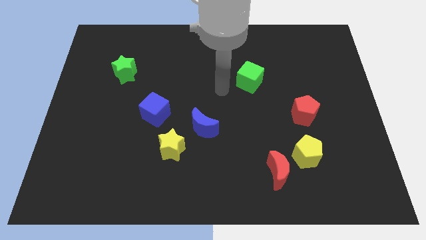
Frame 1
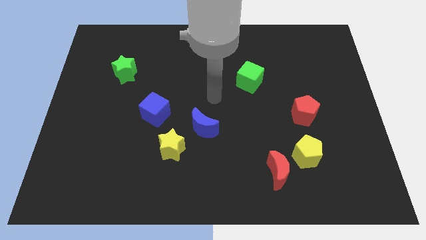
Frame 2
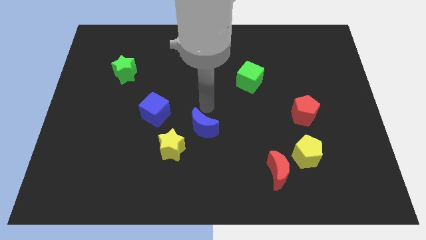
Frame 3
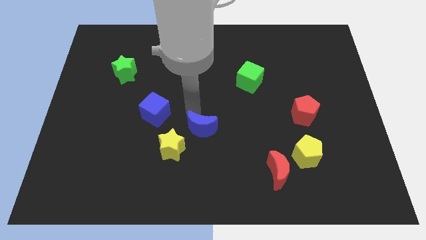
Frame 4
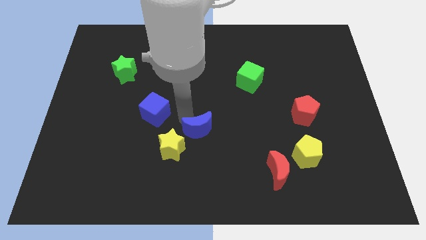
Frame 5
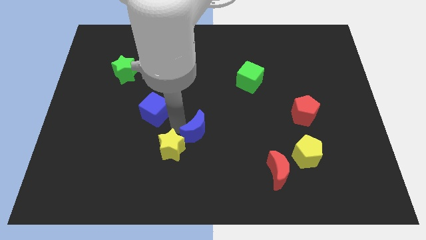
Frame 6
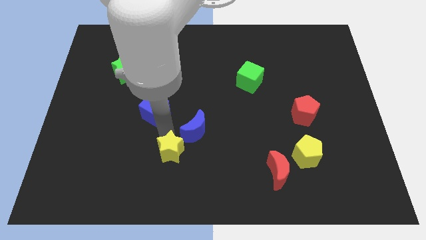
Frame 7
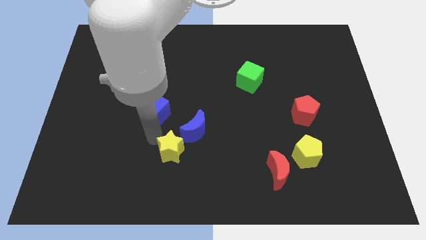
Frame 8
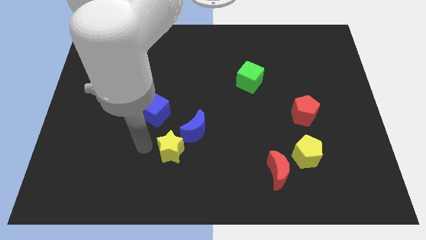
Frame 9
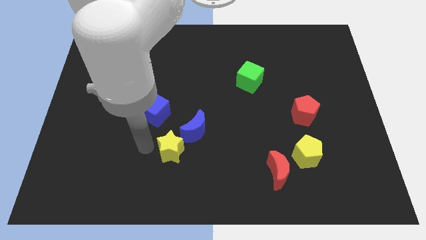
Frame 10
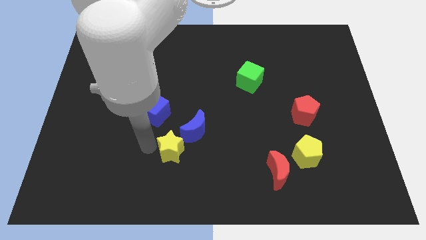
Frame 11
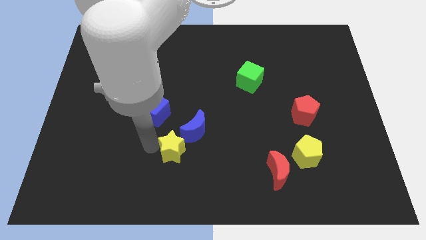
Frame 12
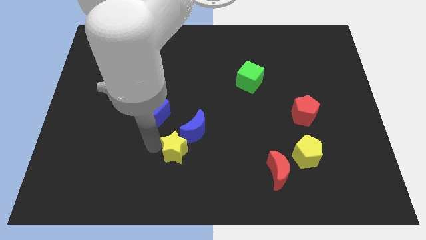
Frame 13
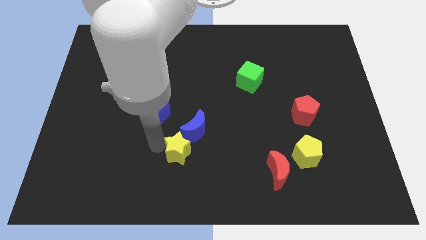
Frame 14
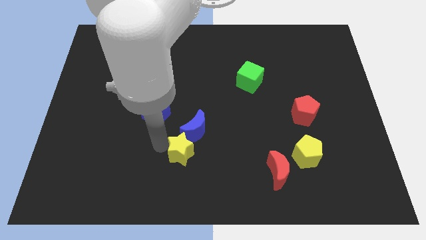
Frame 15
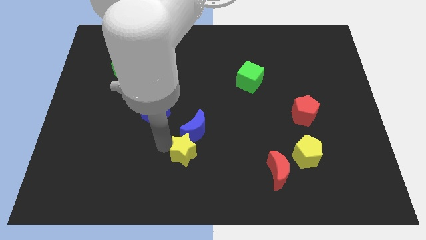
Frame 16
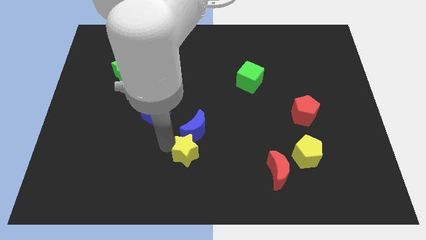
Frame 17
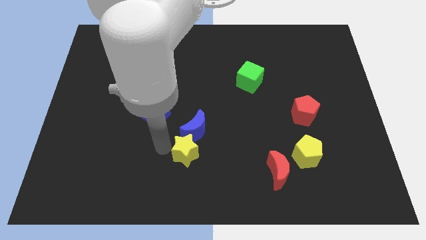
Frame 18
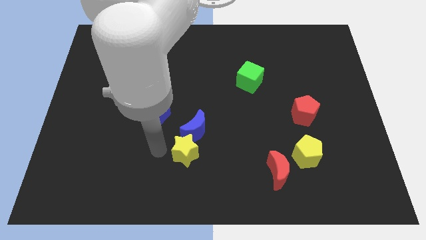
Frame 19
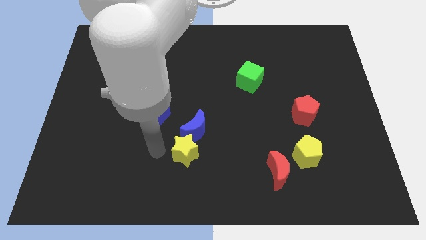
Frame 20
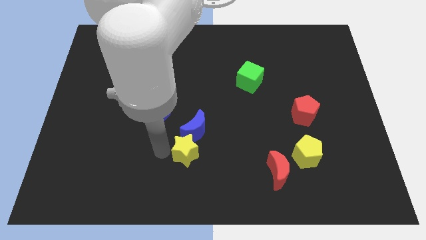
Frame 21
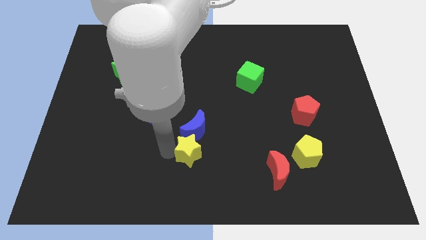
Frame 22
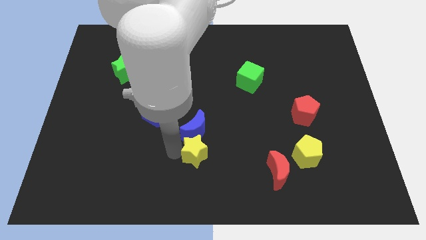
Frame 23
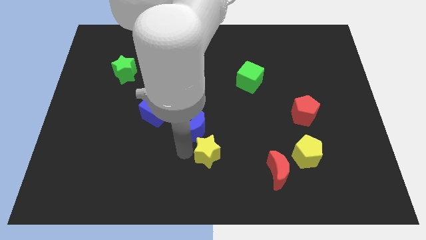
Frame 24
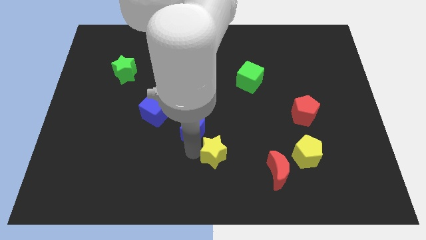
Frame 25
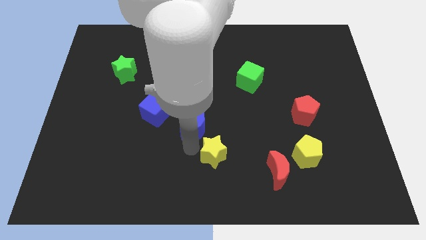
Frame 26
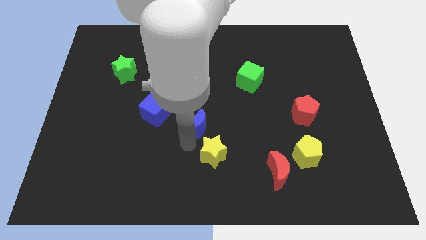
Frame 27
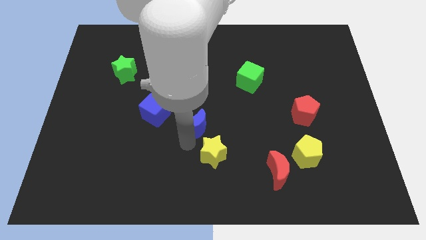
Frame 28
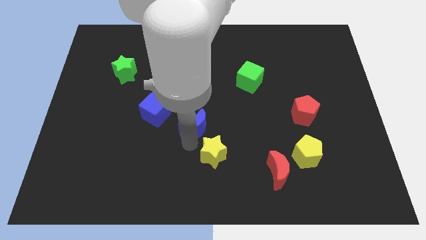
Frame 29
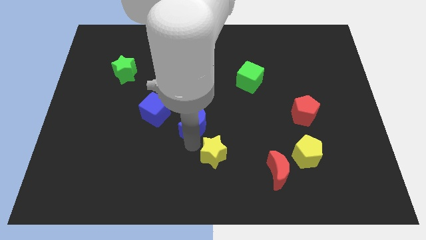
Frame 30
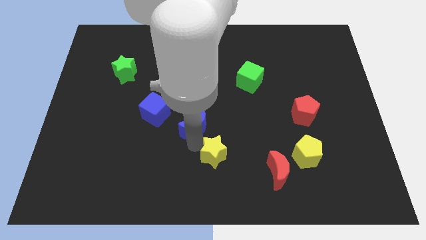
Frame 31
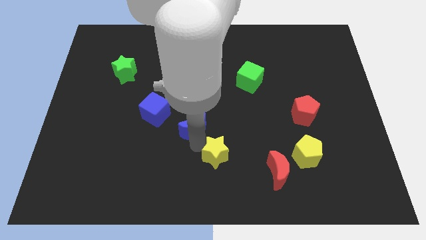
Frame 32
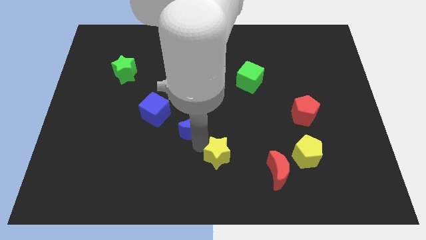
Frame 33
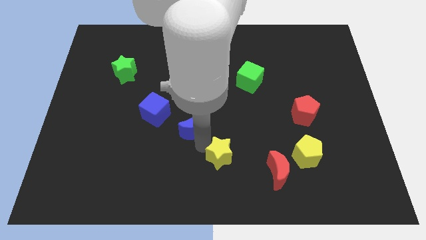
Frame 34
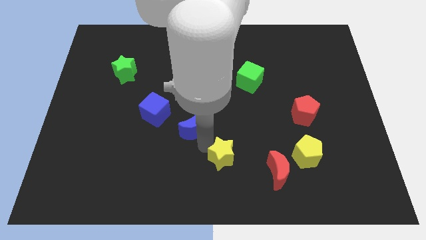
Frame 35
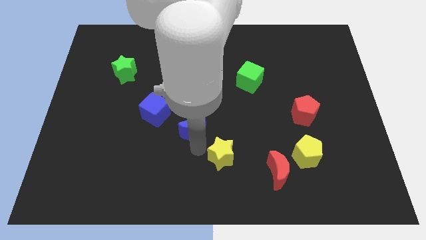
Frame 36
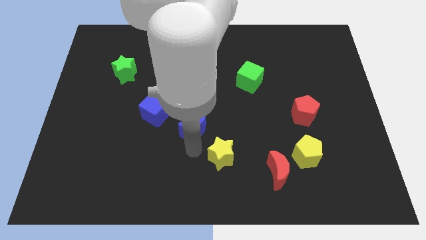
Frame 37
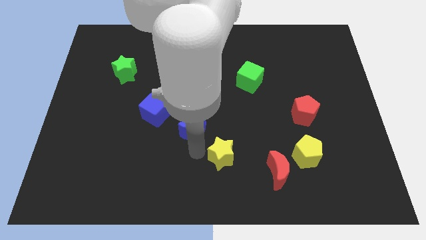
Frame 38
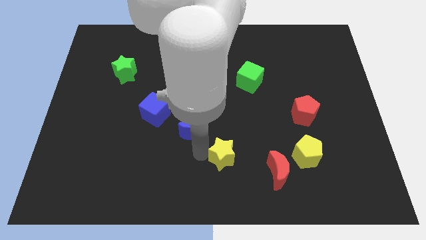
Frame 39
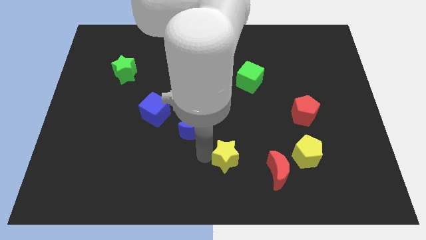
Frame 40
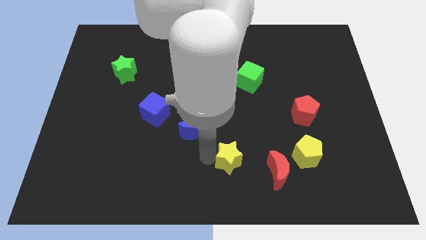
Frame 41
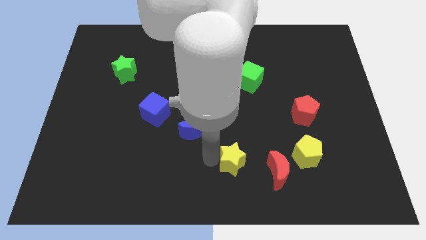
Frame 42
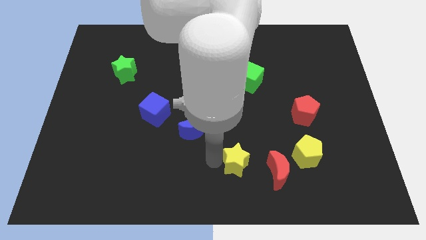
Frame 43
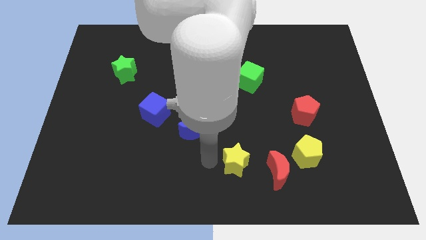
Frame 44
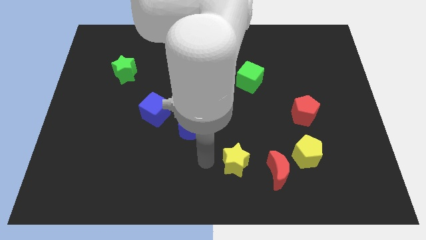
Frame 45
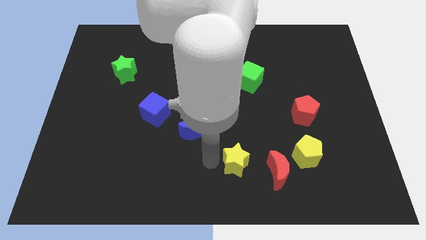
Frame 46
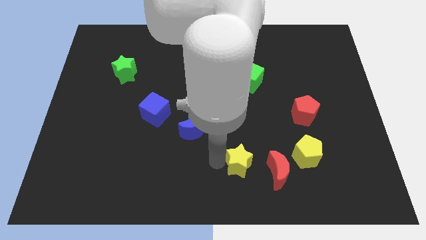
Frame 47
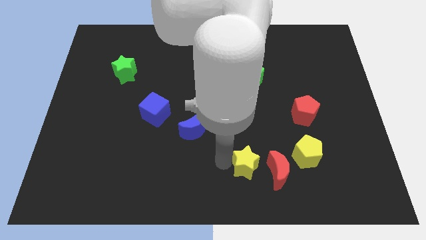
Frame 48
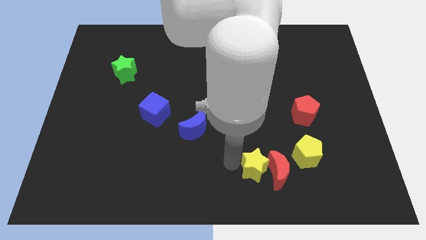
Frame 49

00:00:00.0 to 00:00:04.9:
move the yellow star to the red moon

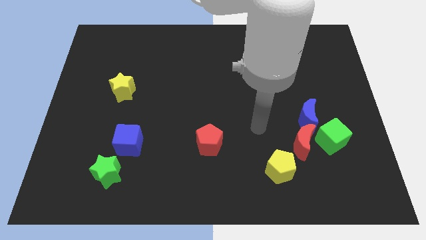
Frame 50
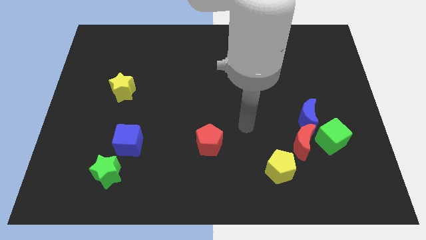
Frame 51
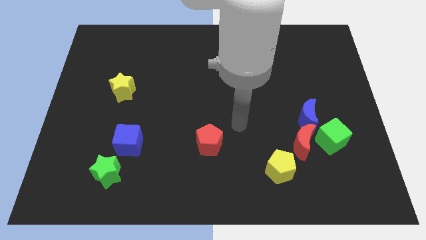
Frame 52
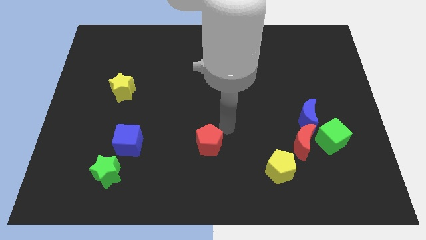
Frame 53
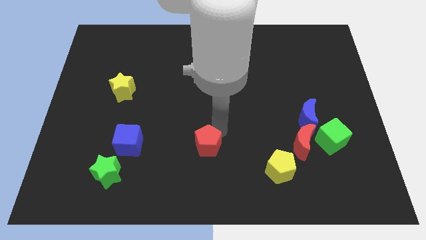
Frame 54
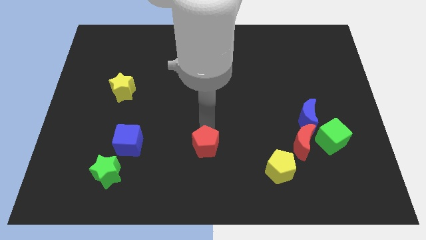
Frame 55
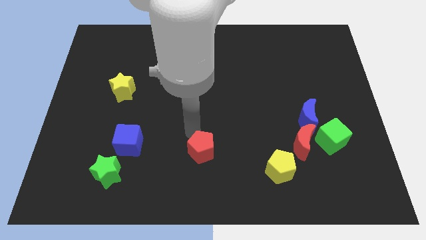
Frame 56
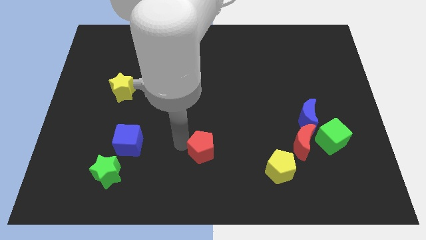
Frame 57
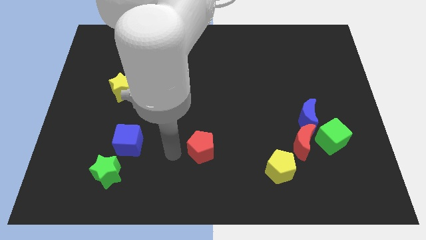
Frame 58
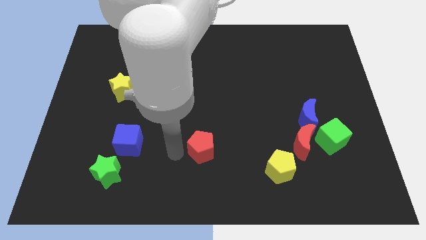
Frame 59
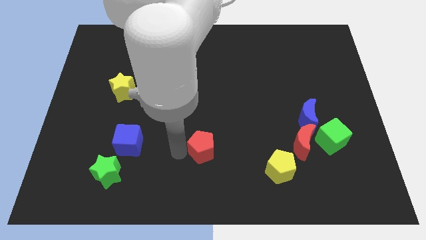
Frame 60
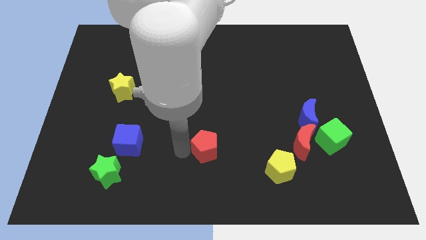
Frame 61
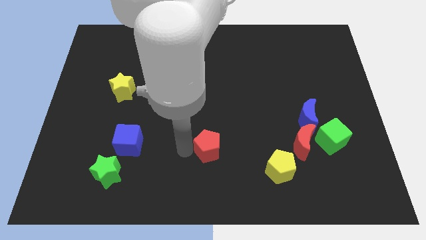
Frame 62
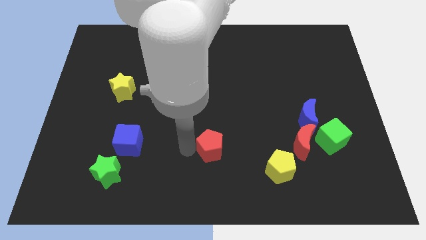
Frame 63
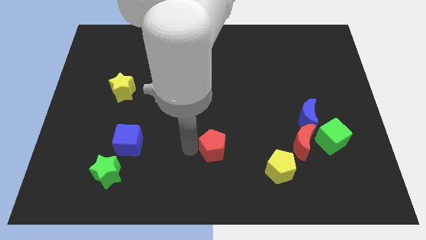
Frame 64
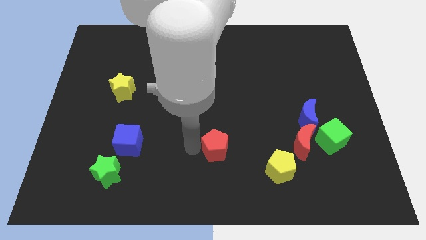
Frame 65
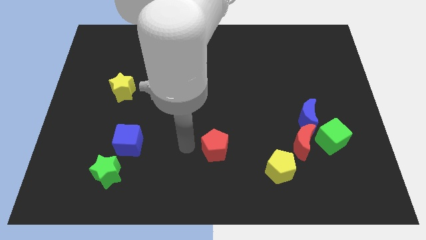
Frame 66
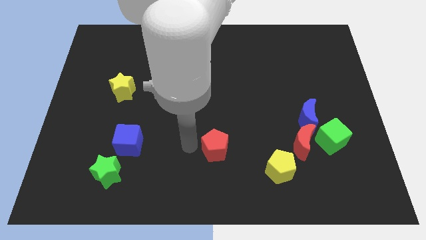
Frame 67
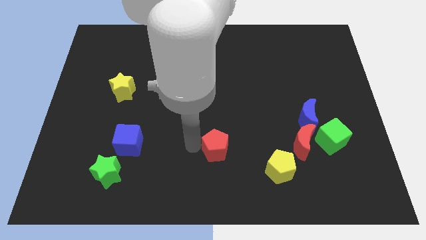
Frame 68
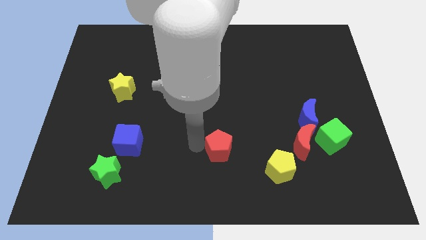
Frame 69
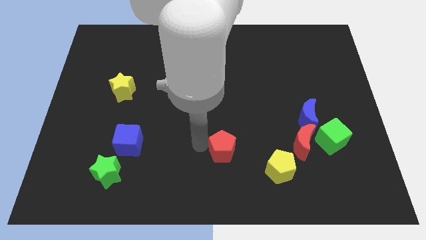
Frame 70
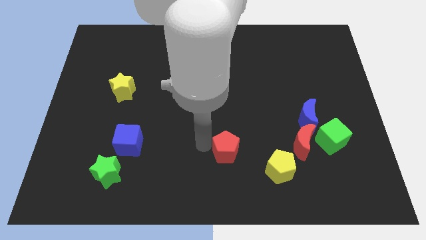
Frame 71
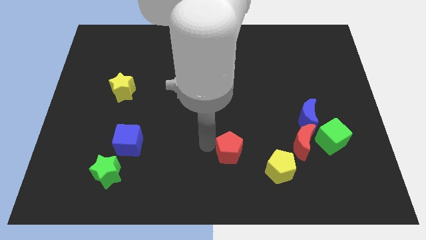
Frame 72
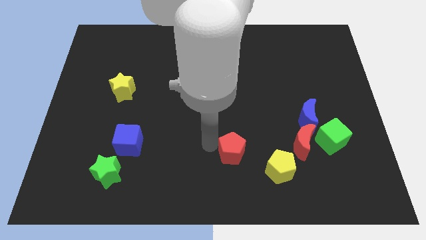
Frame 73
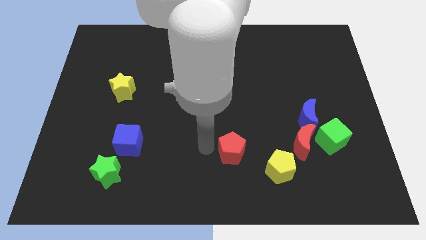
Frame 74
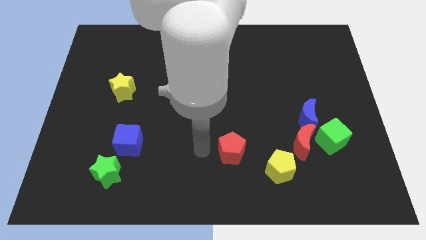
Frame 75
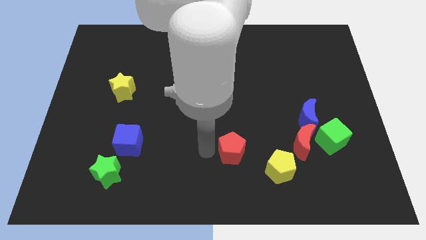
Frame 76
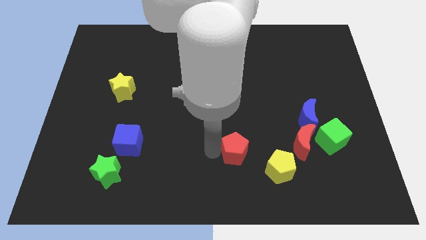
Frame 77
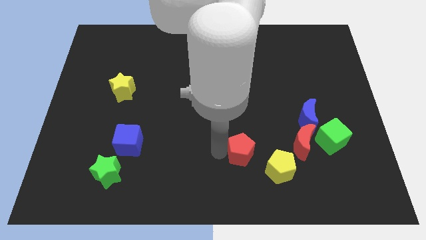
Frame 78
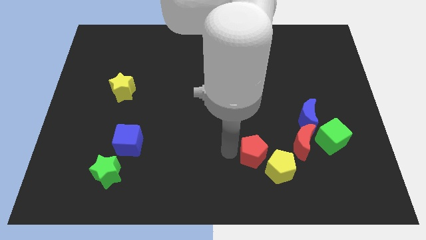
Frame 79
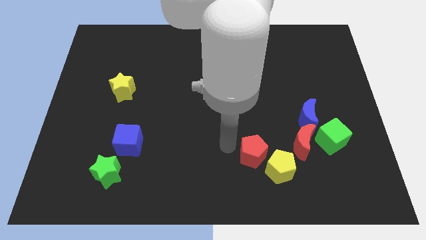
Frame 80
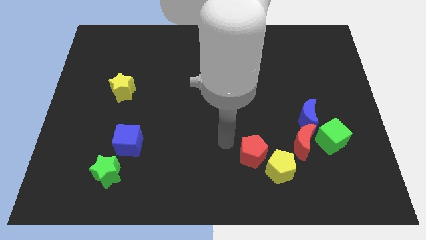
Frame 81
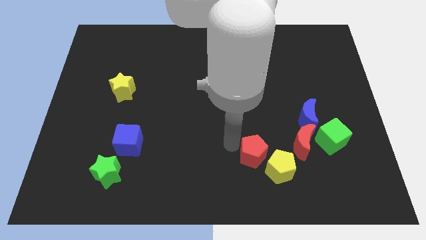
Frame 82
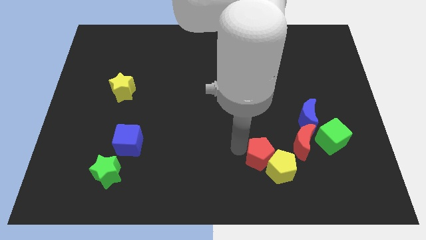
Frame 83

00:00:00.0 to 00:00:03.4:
move the red pentagon to the yellow pentagon

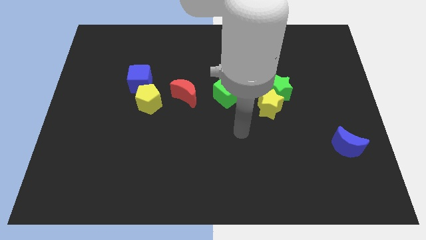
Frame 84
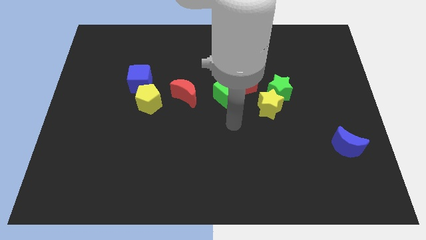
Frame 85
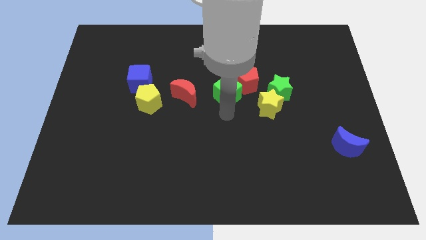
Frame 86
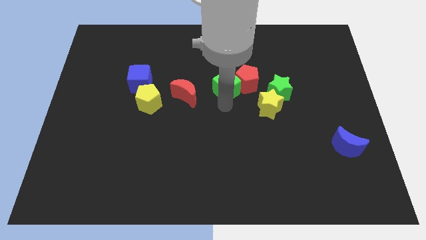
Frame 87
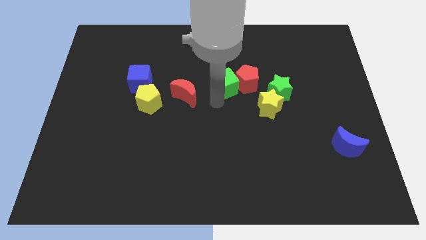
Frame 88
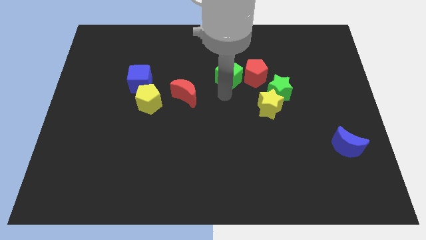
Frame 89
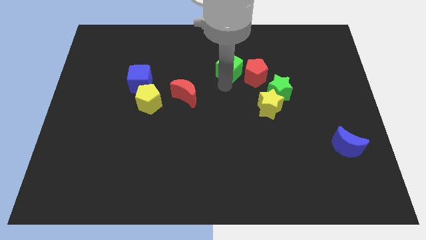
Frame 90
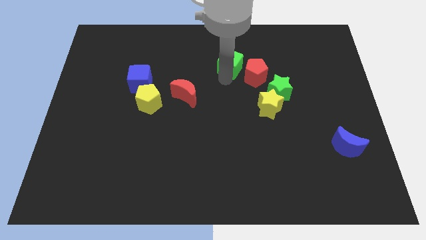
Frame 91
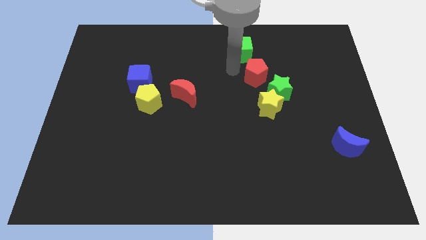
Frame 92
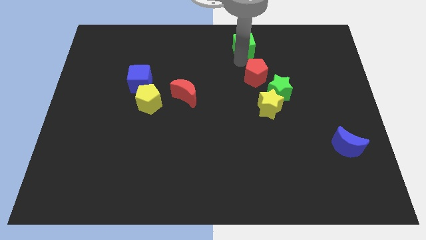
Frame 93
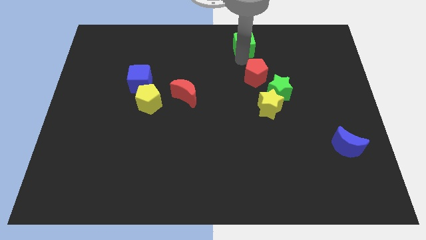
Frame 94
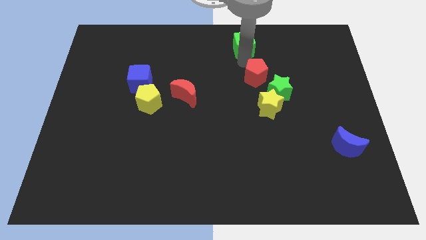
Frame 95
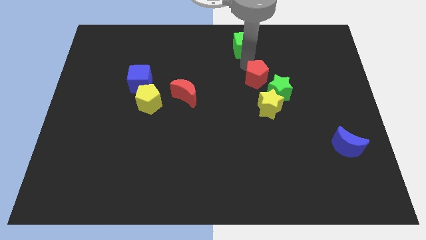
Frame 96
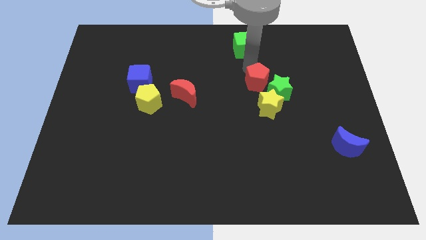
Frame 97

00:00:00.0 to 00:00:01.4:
slide the red pentagon to the green star
